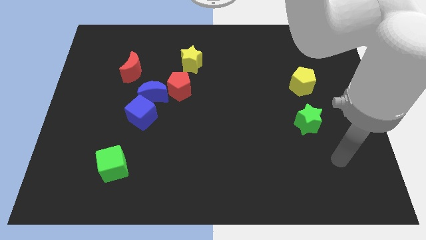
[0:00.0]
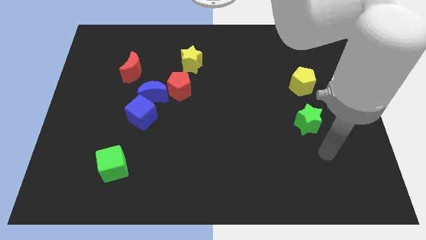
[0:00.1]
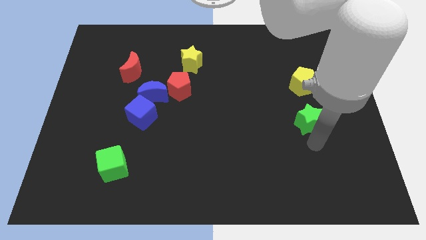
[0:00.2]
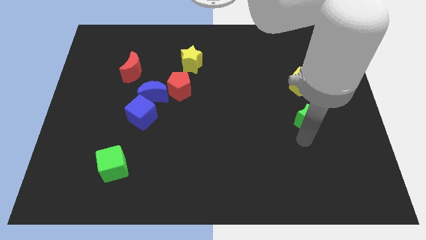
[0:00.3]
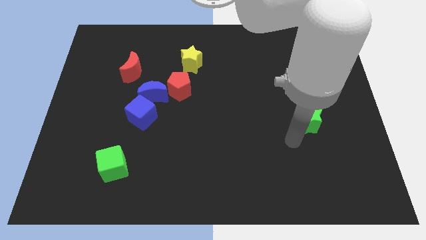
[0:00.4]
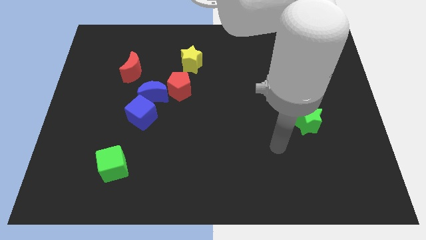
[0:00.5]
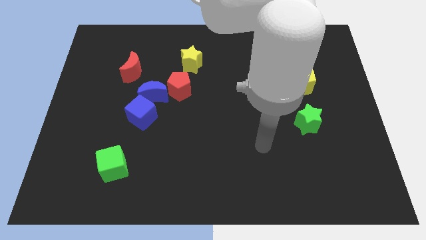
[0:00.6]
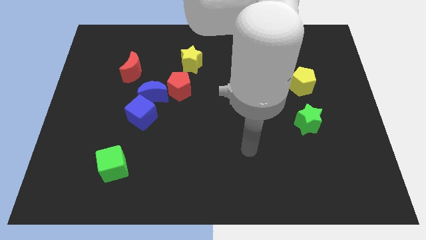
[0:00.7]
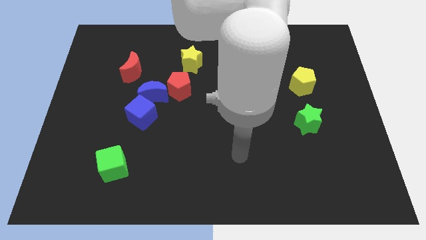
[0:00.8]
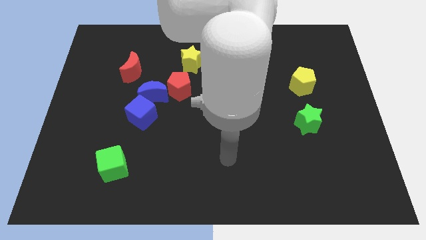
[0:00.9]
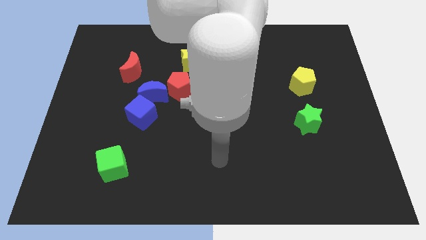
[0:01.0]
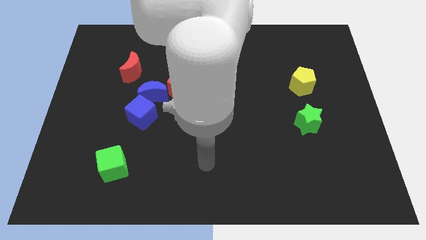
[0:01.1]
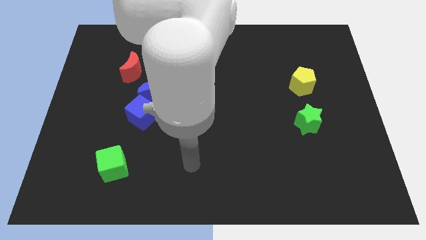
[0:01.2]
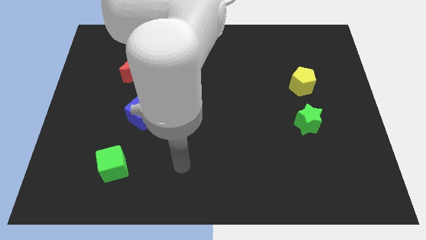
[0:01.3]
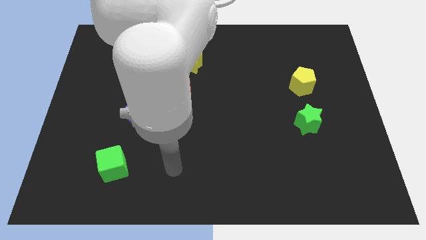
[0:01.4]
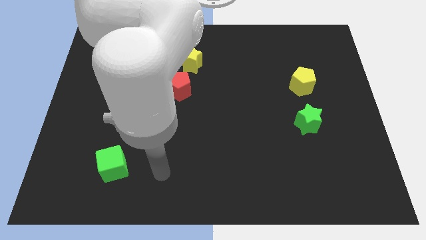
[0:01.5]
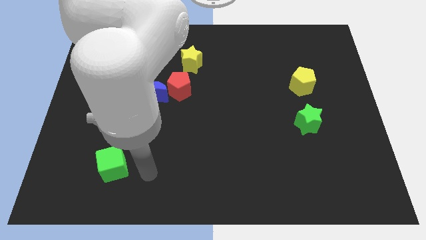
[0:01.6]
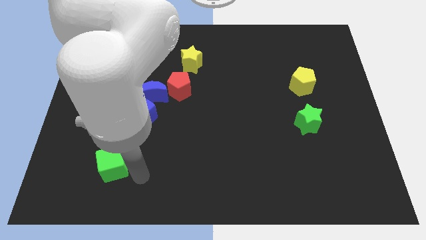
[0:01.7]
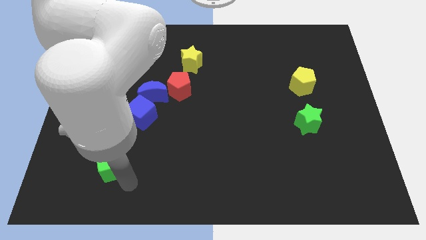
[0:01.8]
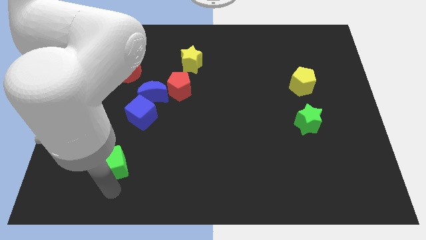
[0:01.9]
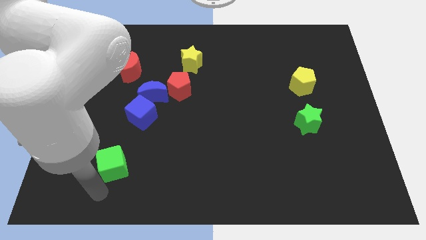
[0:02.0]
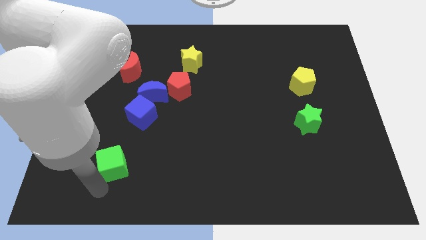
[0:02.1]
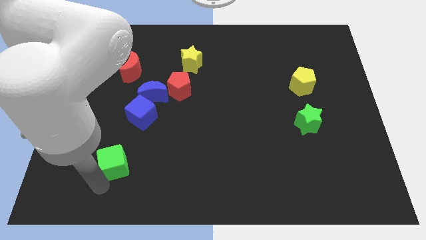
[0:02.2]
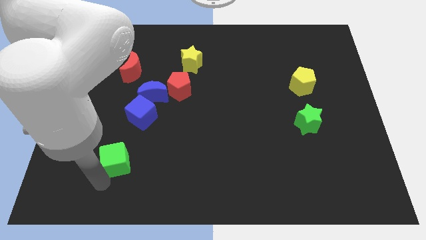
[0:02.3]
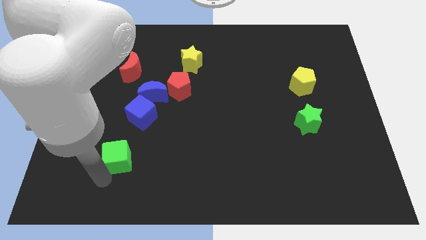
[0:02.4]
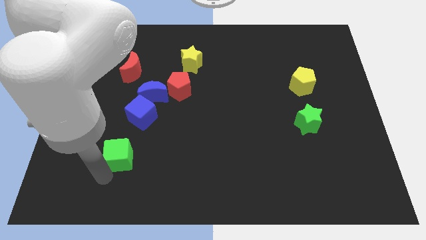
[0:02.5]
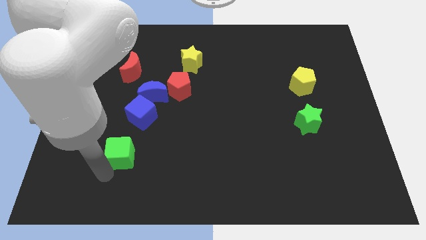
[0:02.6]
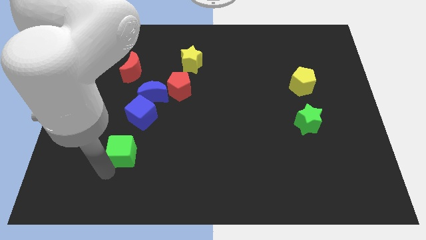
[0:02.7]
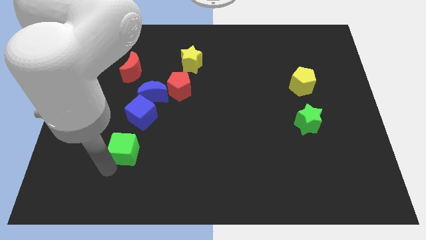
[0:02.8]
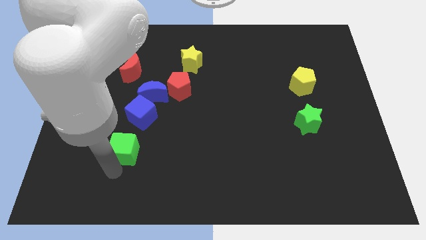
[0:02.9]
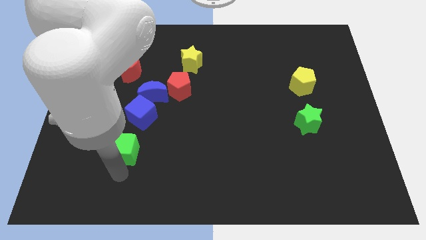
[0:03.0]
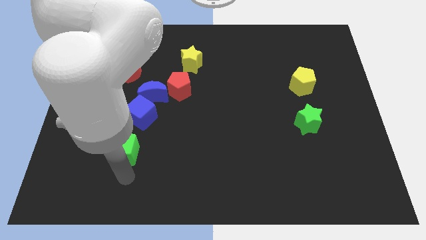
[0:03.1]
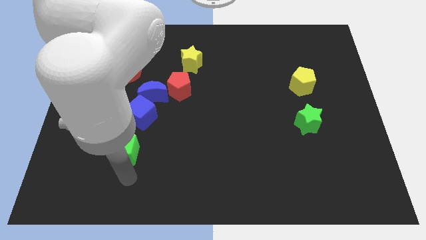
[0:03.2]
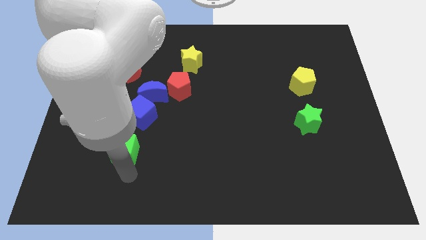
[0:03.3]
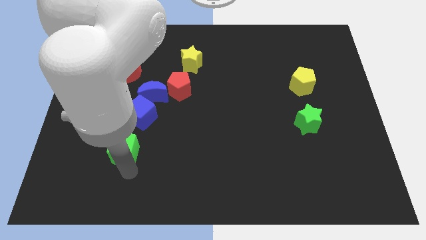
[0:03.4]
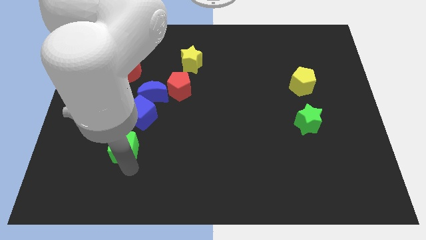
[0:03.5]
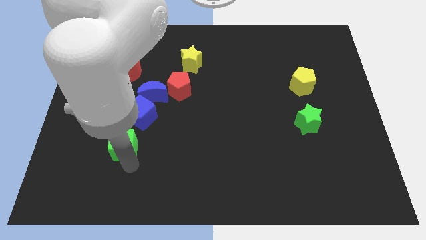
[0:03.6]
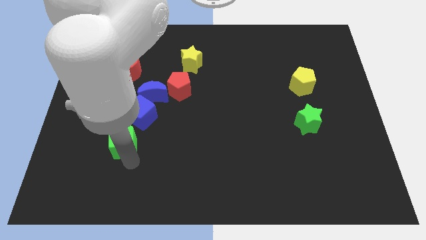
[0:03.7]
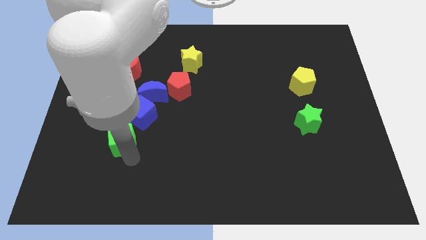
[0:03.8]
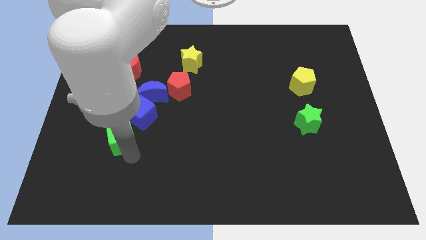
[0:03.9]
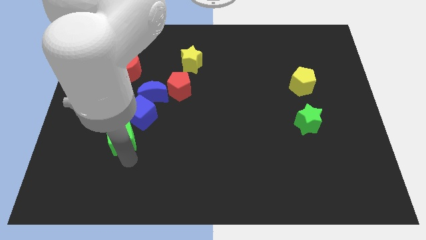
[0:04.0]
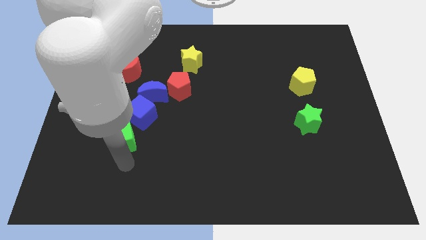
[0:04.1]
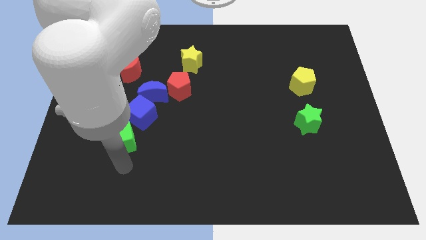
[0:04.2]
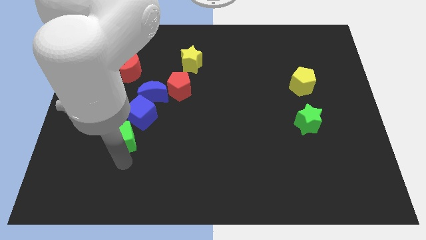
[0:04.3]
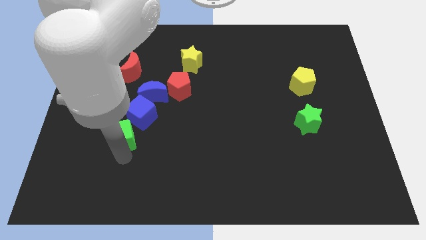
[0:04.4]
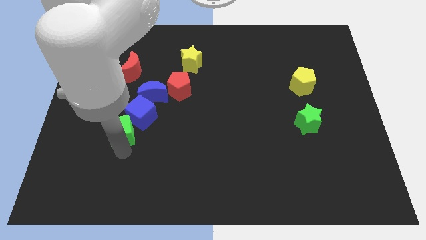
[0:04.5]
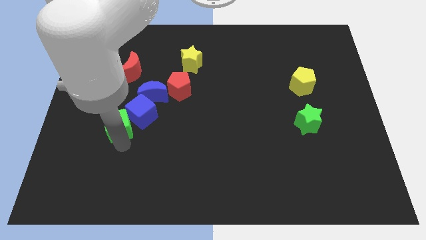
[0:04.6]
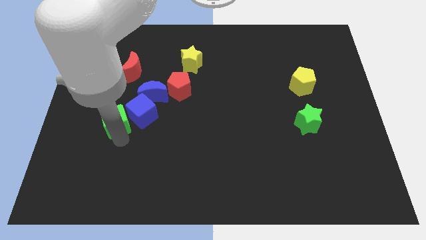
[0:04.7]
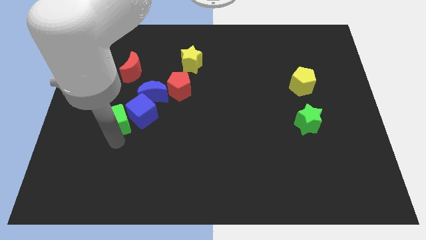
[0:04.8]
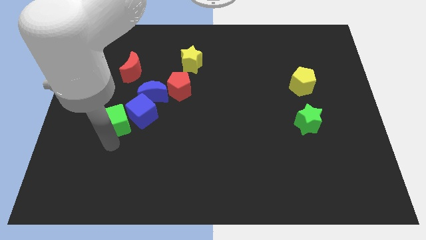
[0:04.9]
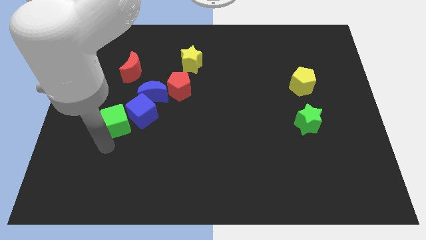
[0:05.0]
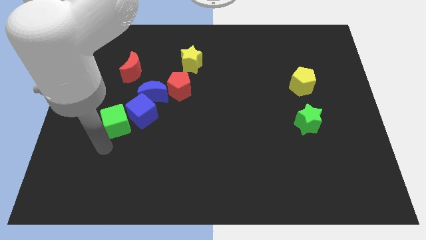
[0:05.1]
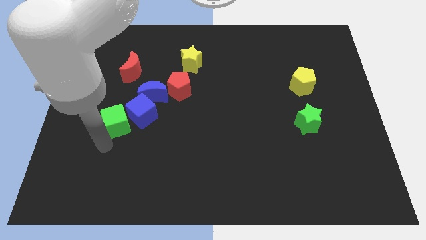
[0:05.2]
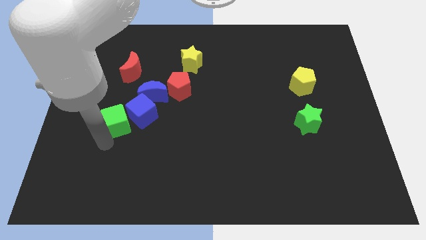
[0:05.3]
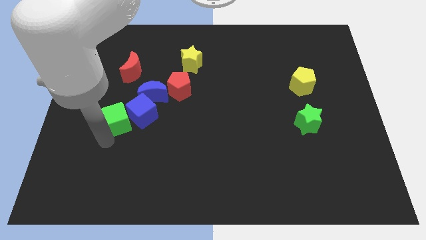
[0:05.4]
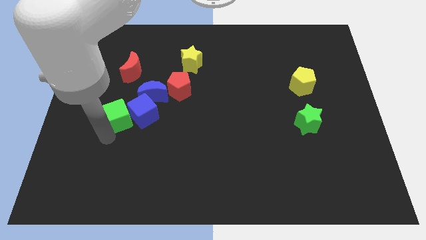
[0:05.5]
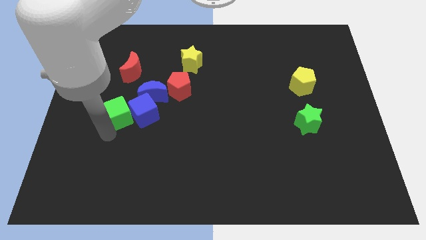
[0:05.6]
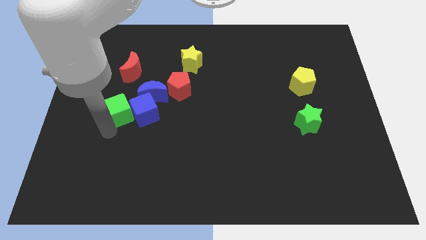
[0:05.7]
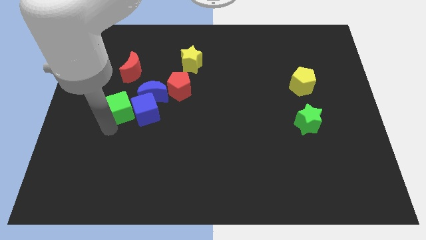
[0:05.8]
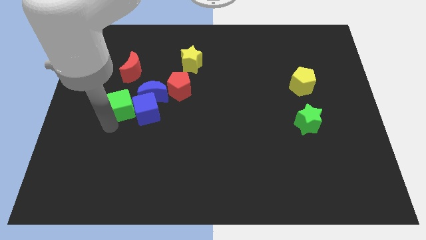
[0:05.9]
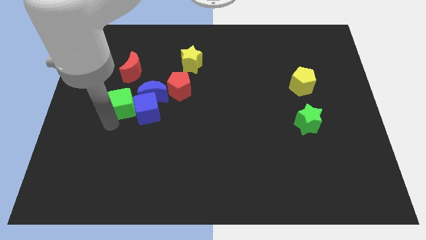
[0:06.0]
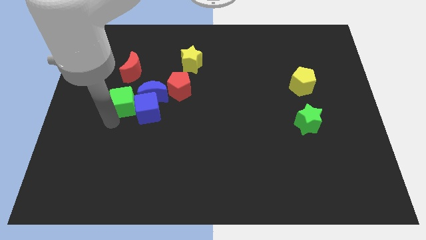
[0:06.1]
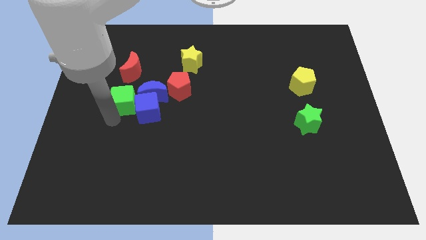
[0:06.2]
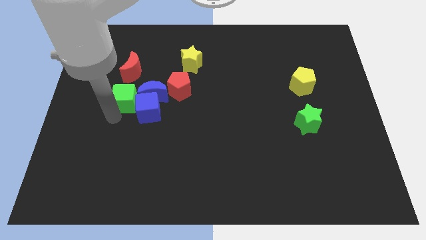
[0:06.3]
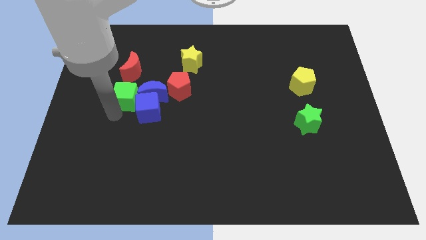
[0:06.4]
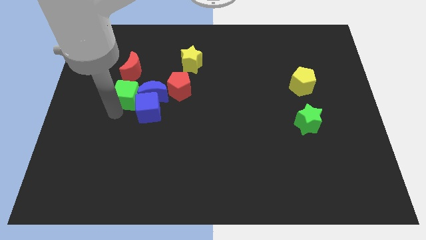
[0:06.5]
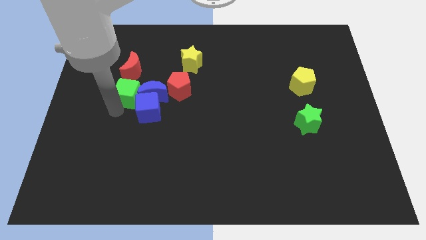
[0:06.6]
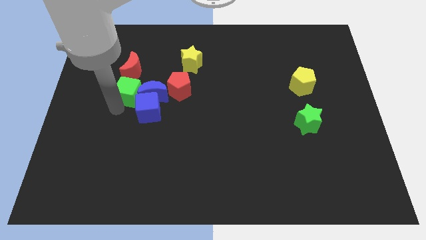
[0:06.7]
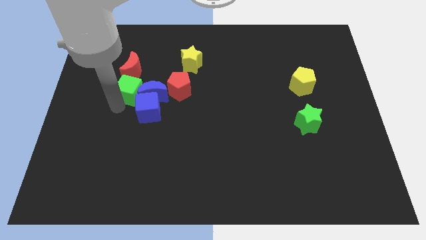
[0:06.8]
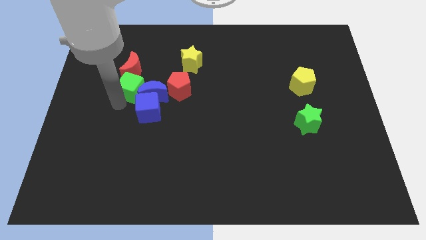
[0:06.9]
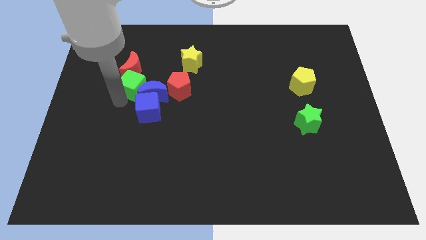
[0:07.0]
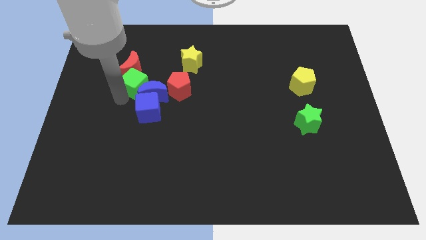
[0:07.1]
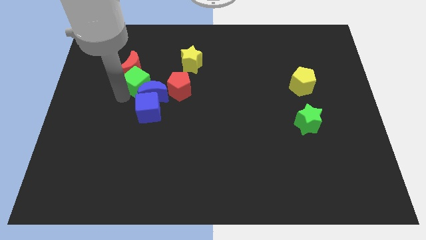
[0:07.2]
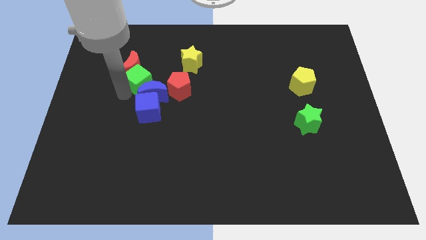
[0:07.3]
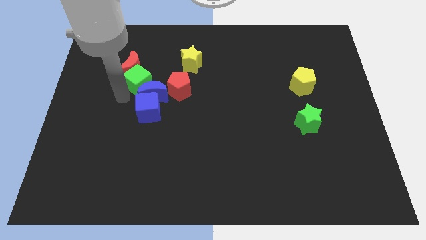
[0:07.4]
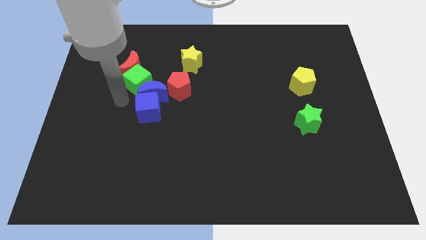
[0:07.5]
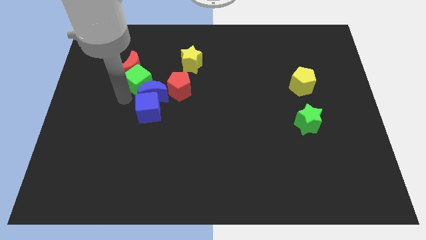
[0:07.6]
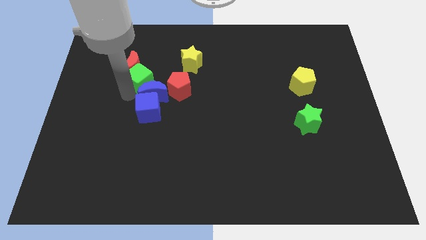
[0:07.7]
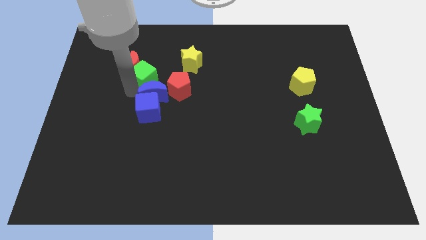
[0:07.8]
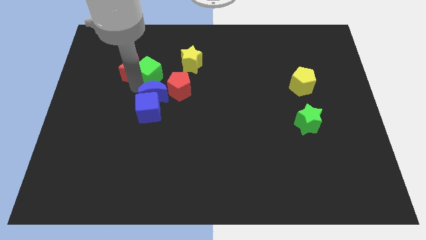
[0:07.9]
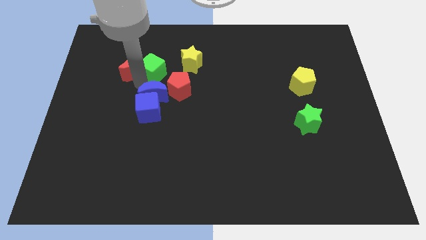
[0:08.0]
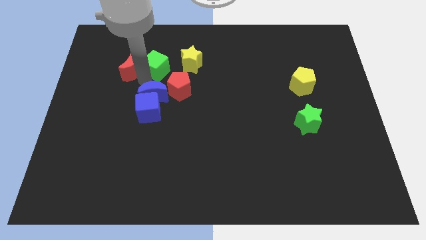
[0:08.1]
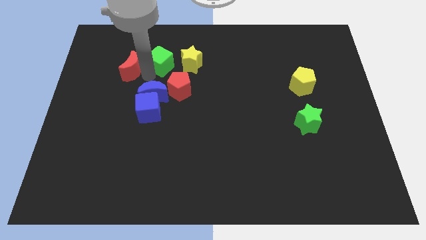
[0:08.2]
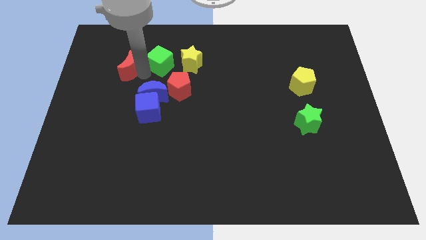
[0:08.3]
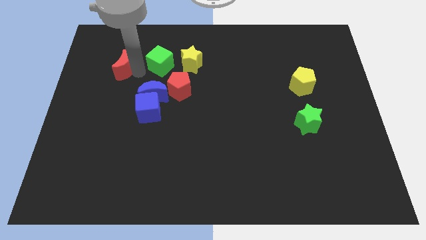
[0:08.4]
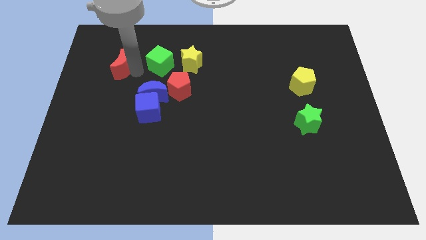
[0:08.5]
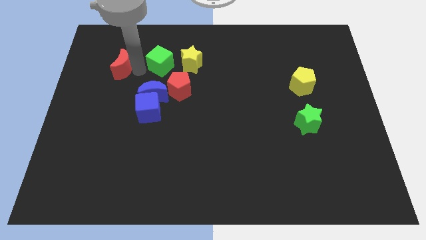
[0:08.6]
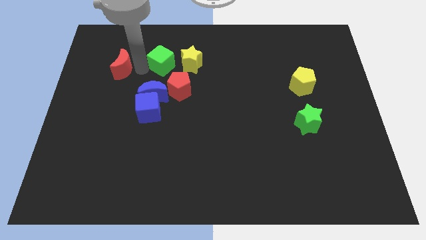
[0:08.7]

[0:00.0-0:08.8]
move the green cube to the top of the red pentagon
